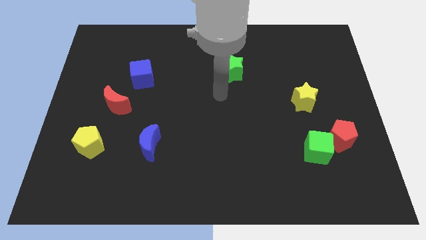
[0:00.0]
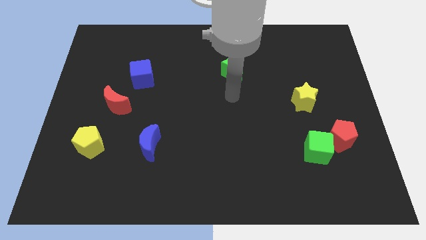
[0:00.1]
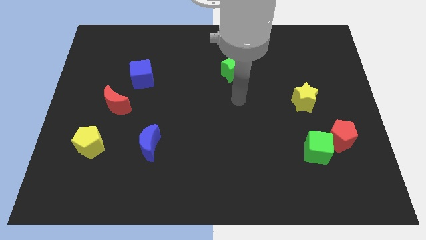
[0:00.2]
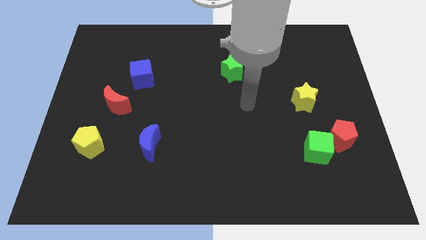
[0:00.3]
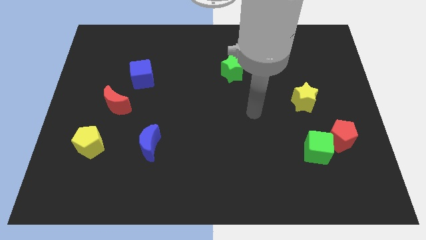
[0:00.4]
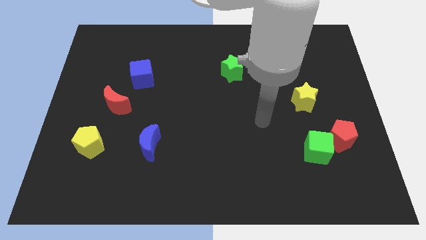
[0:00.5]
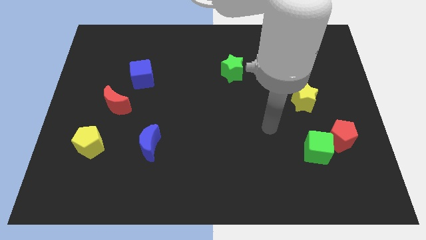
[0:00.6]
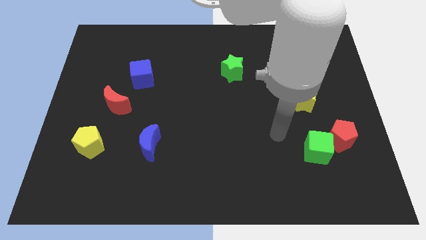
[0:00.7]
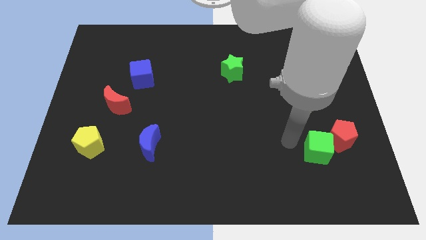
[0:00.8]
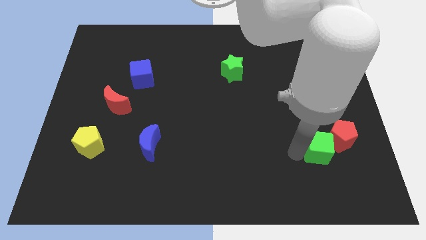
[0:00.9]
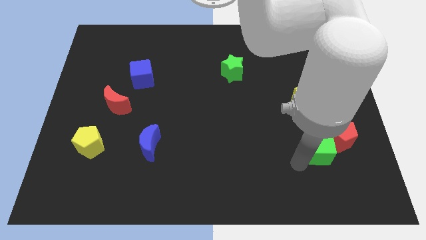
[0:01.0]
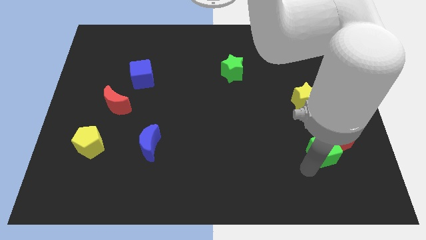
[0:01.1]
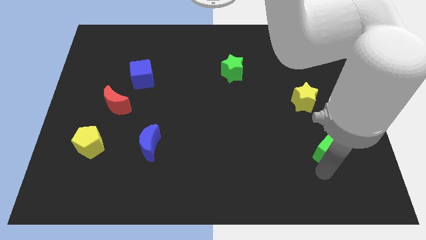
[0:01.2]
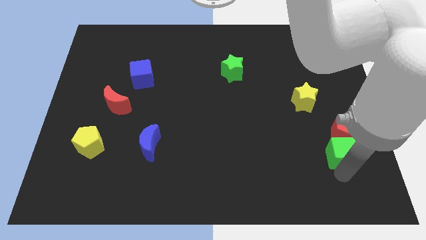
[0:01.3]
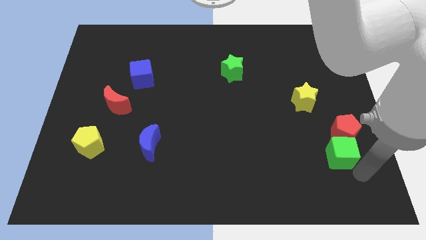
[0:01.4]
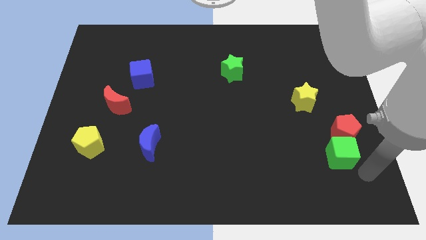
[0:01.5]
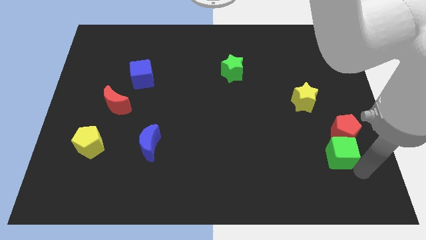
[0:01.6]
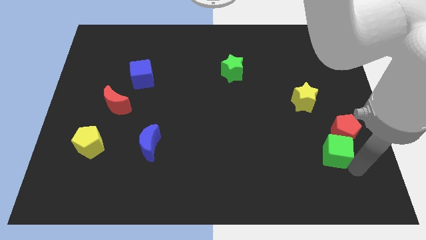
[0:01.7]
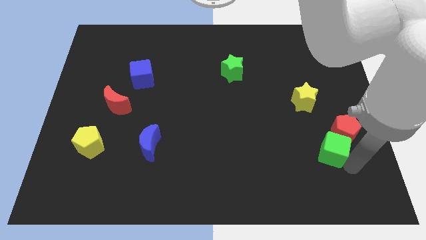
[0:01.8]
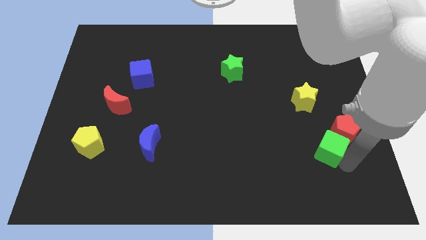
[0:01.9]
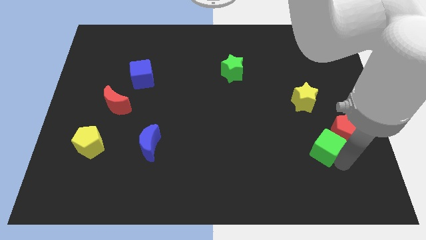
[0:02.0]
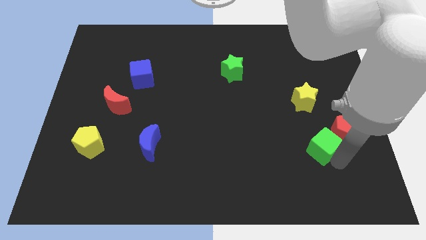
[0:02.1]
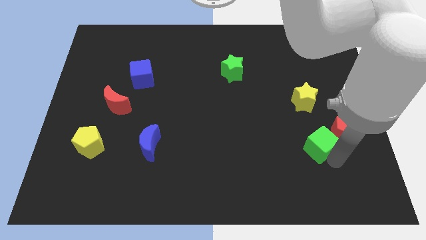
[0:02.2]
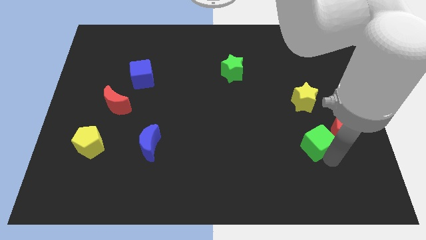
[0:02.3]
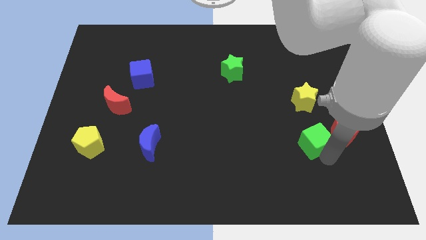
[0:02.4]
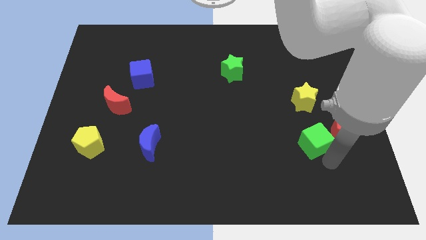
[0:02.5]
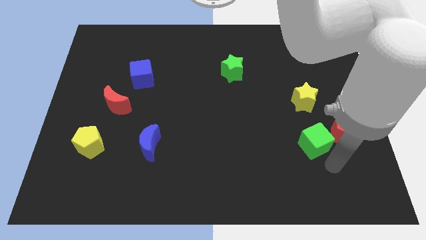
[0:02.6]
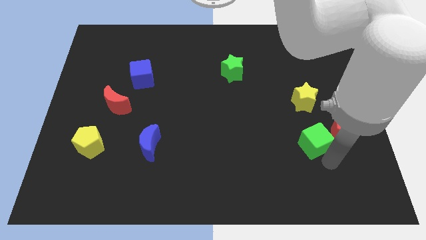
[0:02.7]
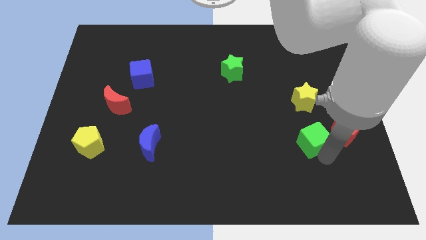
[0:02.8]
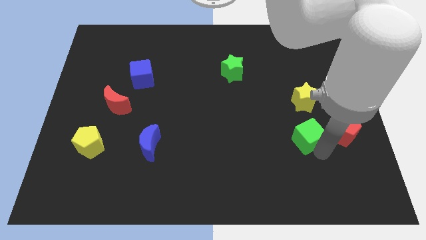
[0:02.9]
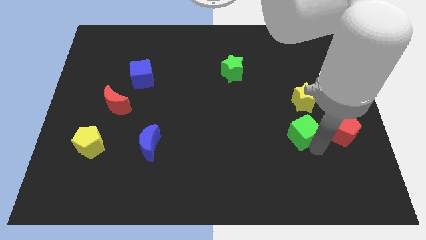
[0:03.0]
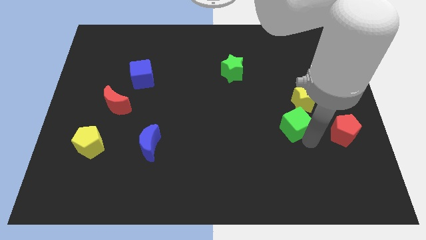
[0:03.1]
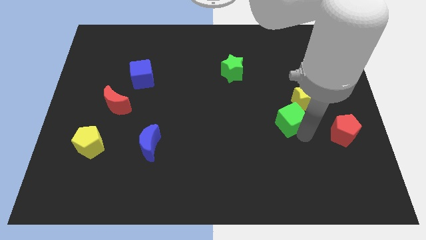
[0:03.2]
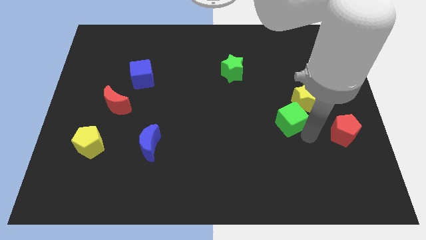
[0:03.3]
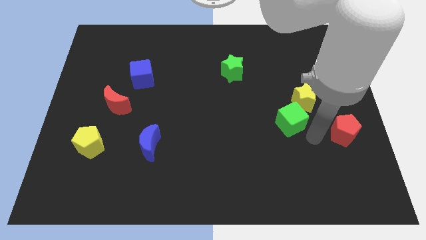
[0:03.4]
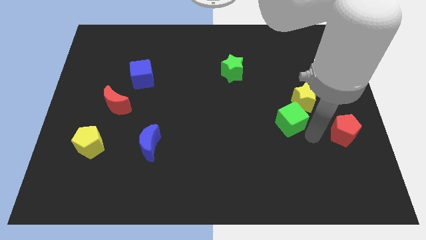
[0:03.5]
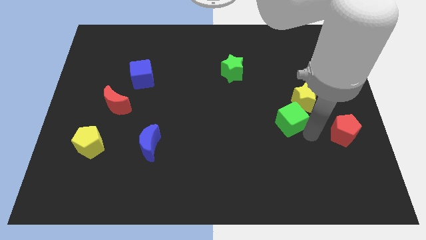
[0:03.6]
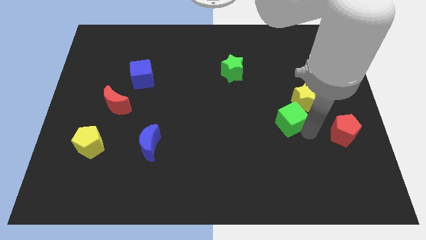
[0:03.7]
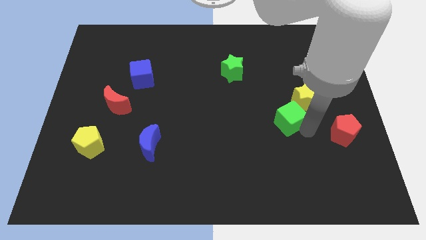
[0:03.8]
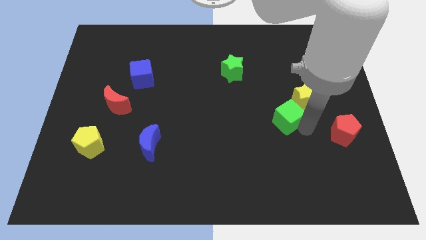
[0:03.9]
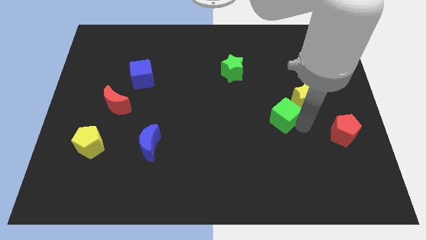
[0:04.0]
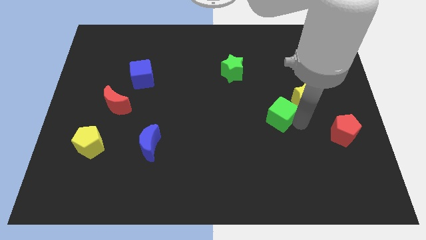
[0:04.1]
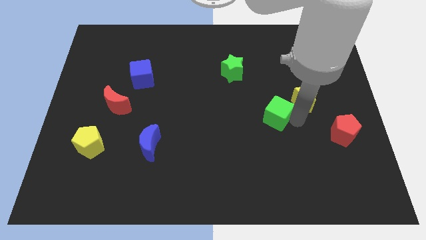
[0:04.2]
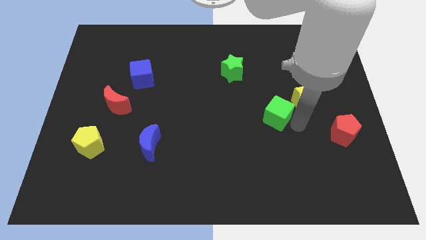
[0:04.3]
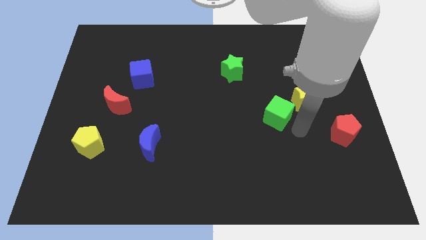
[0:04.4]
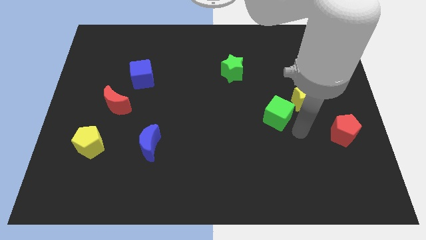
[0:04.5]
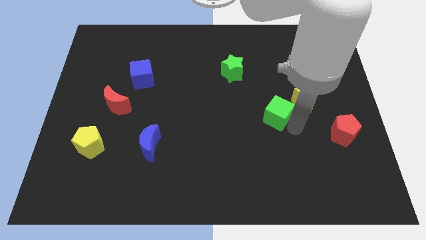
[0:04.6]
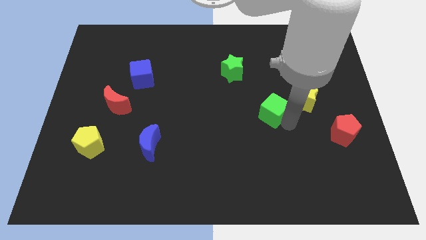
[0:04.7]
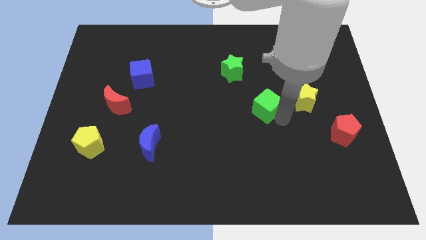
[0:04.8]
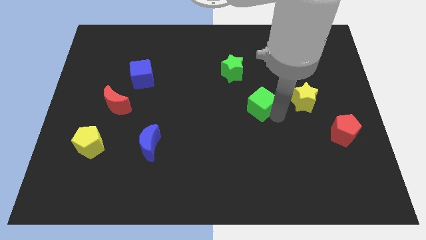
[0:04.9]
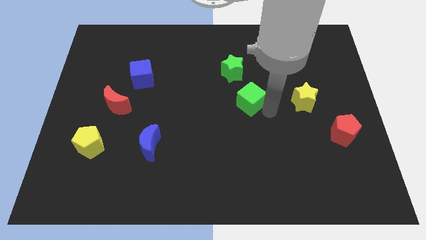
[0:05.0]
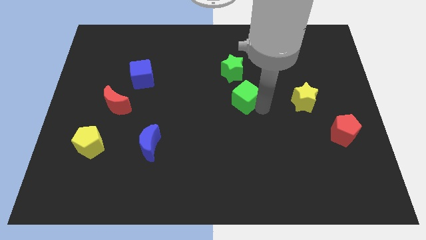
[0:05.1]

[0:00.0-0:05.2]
move the green cube upwards and to the left

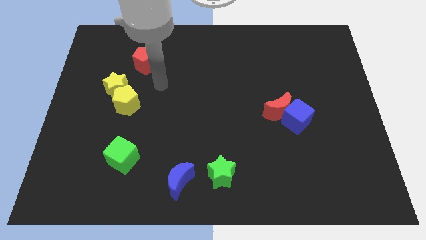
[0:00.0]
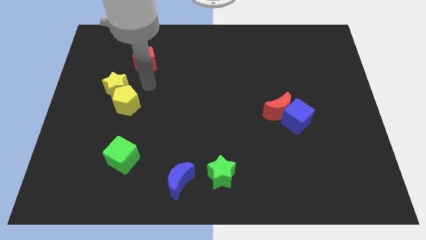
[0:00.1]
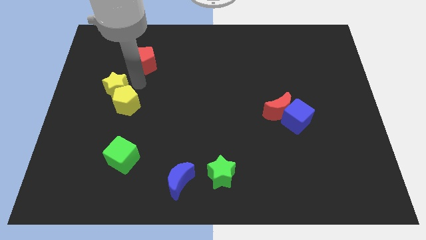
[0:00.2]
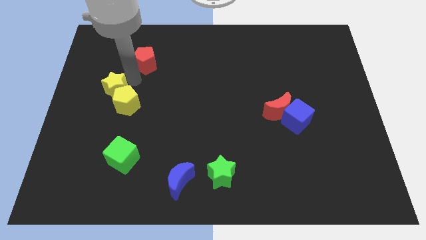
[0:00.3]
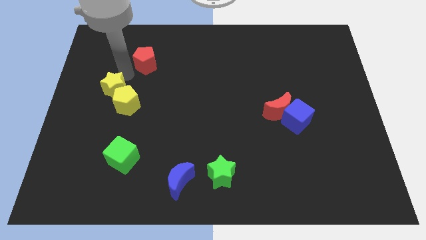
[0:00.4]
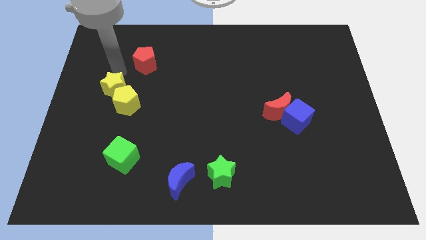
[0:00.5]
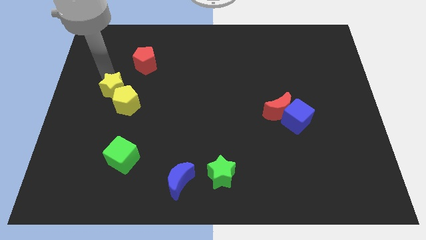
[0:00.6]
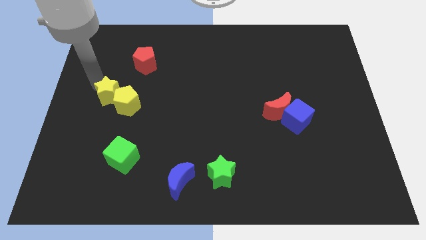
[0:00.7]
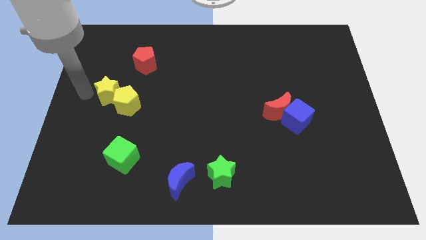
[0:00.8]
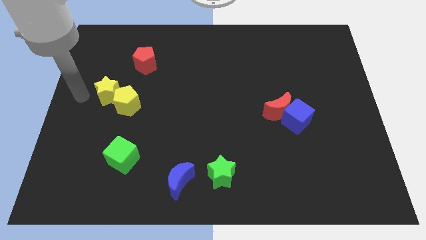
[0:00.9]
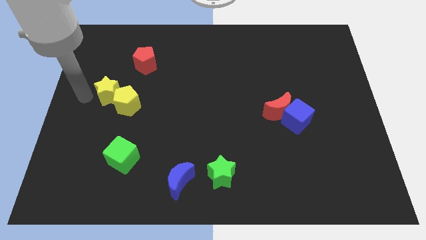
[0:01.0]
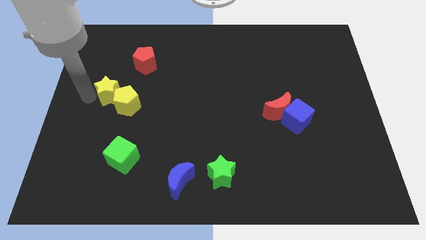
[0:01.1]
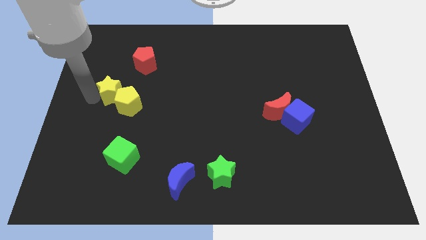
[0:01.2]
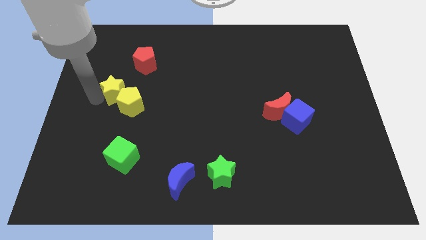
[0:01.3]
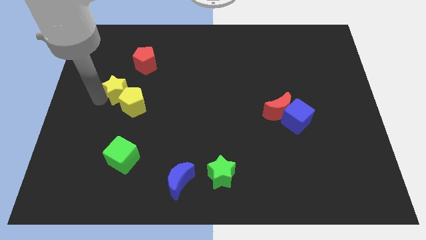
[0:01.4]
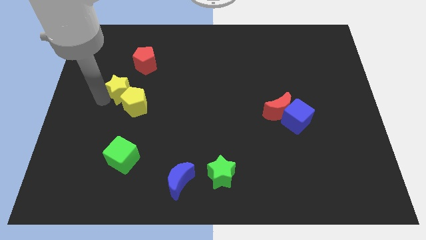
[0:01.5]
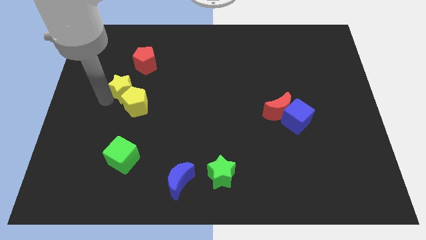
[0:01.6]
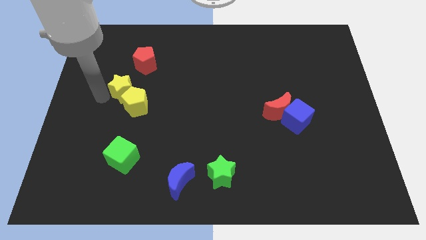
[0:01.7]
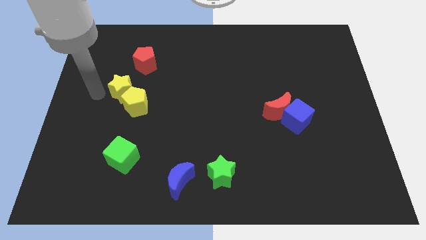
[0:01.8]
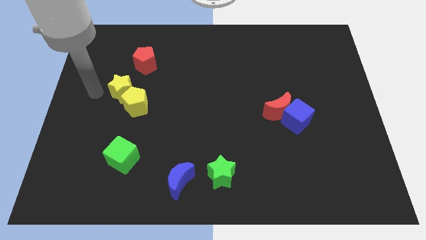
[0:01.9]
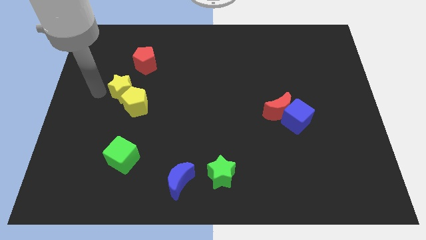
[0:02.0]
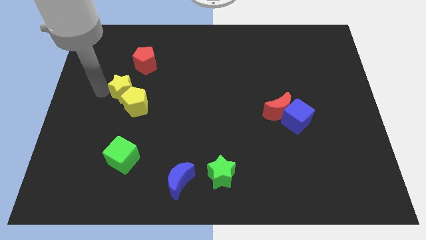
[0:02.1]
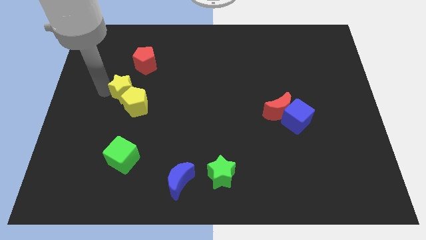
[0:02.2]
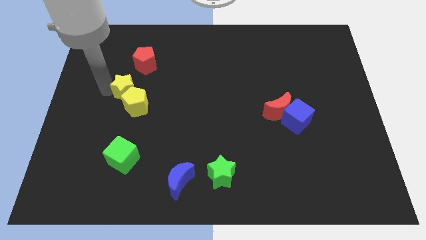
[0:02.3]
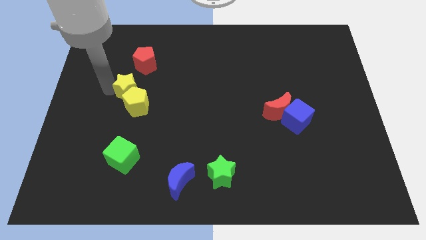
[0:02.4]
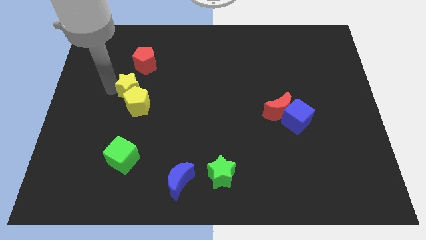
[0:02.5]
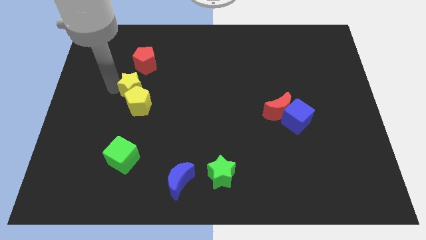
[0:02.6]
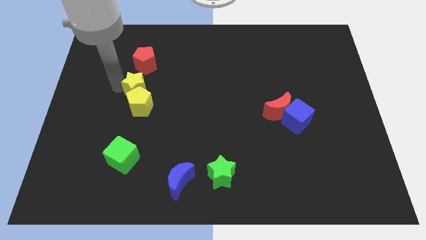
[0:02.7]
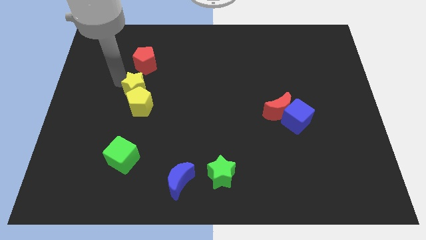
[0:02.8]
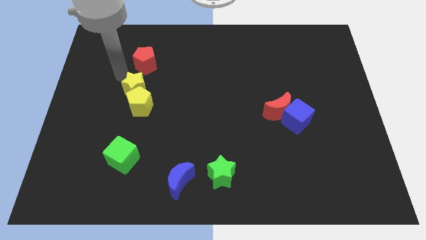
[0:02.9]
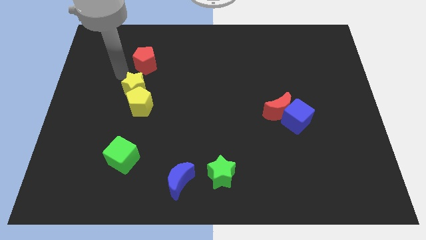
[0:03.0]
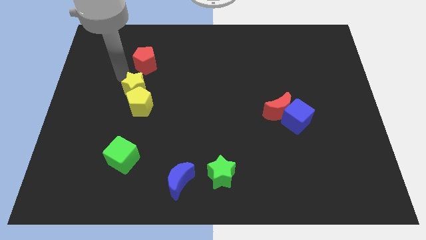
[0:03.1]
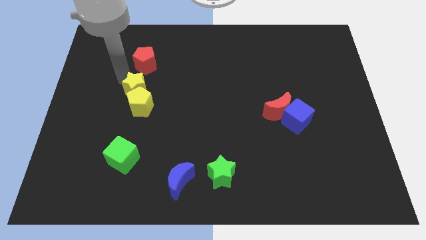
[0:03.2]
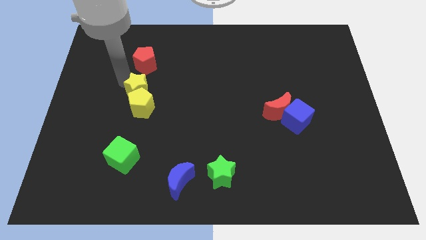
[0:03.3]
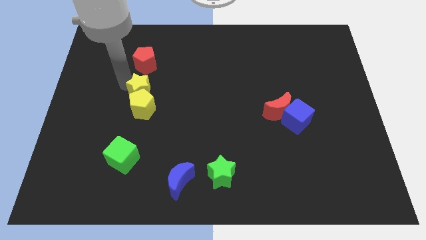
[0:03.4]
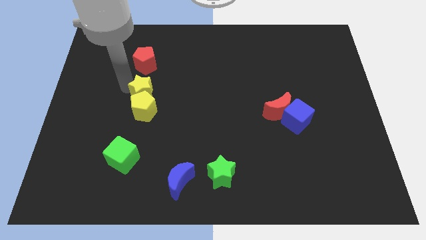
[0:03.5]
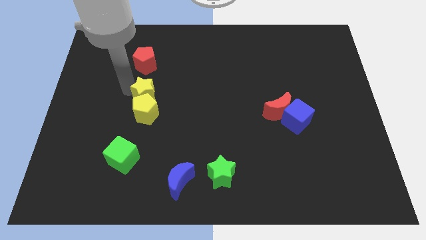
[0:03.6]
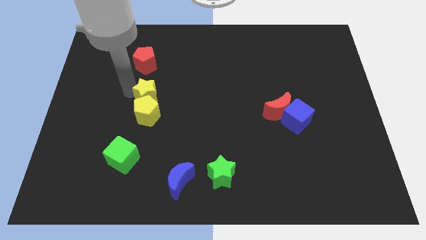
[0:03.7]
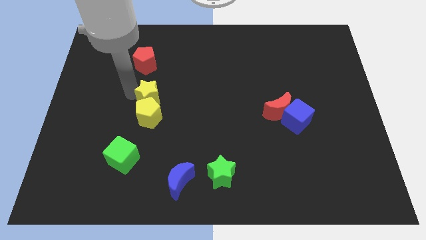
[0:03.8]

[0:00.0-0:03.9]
slide the yellow star downwards and to the right a bit
